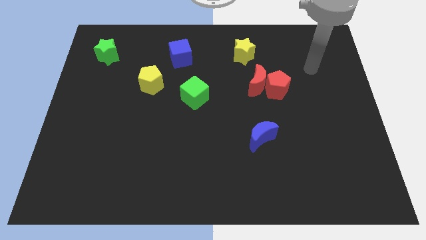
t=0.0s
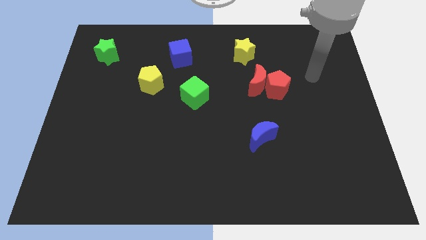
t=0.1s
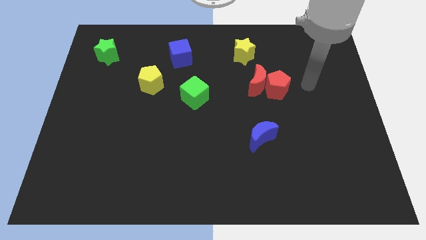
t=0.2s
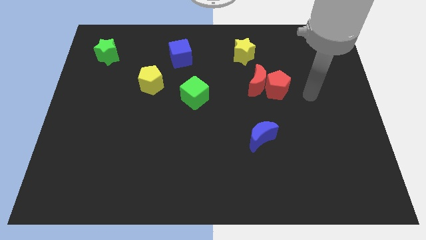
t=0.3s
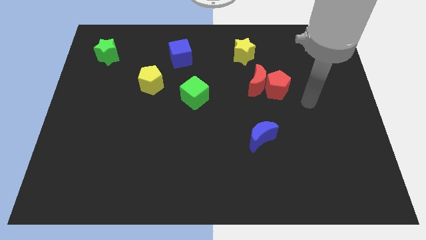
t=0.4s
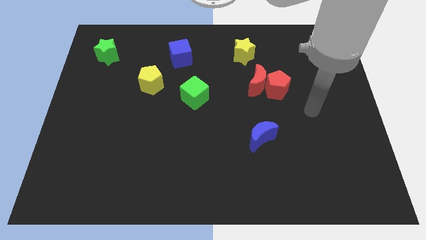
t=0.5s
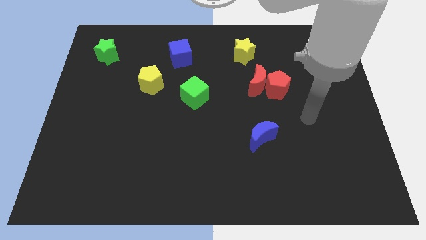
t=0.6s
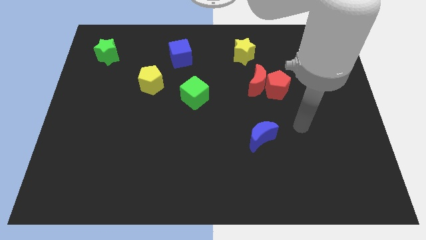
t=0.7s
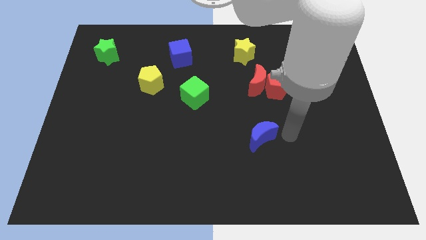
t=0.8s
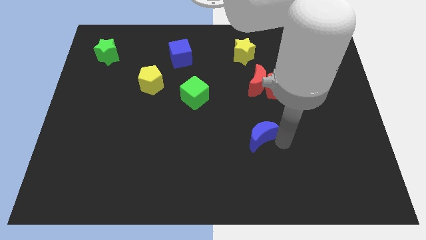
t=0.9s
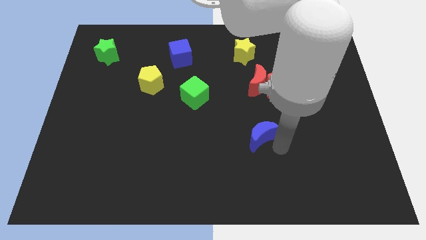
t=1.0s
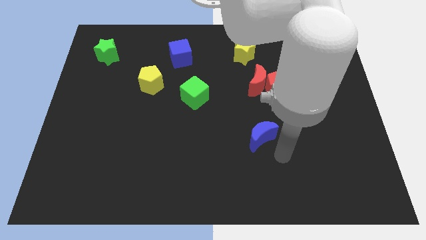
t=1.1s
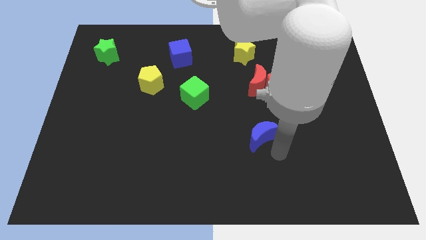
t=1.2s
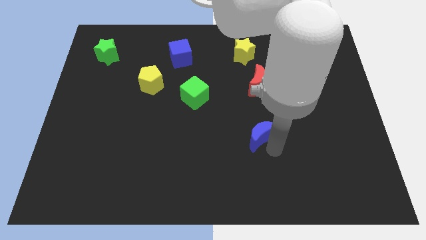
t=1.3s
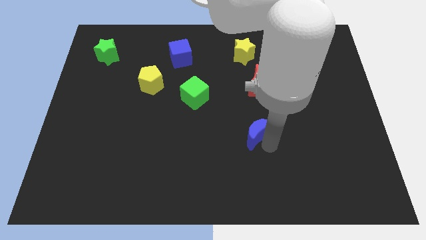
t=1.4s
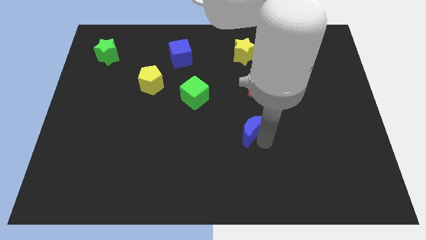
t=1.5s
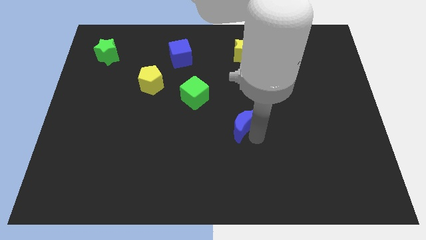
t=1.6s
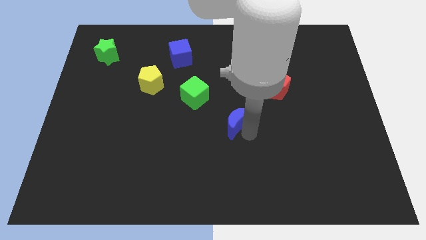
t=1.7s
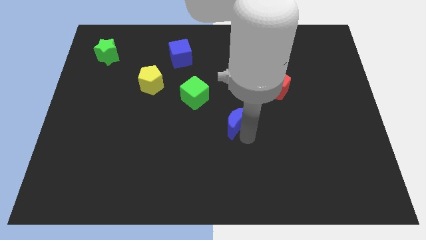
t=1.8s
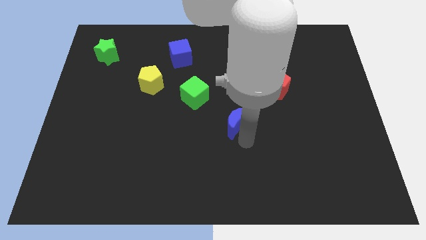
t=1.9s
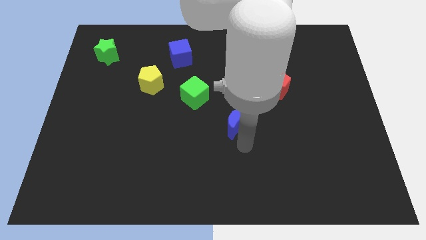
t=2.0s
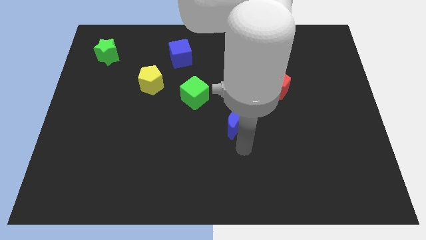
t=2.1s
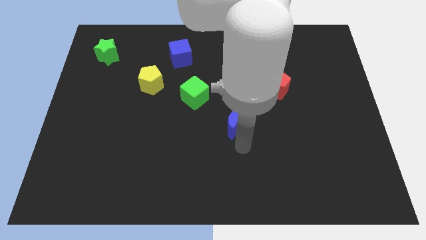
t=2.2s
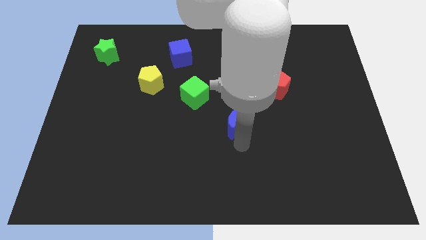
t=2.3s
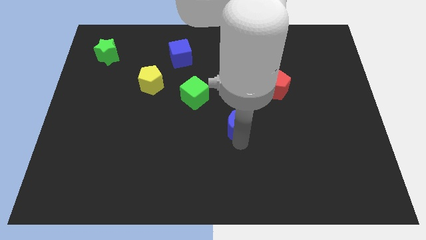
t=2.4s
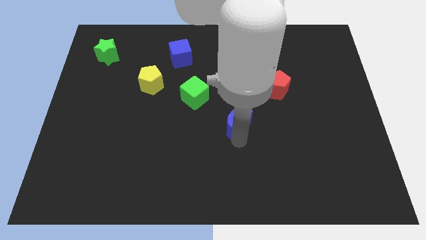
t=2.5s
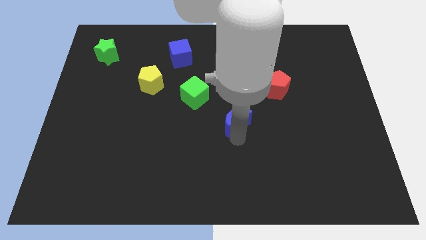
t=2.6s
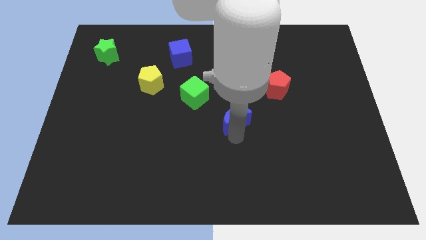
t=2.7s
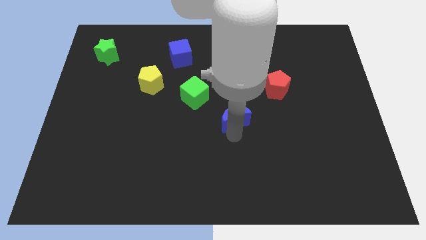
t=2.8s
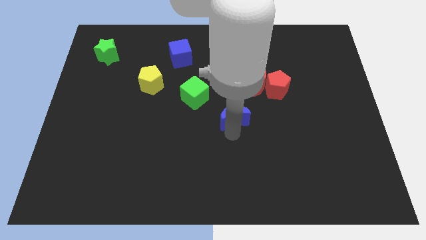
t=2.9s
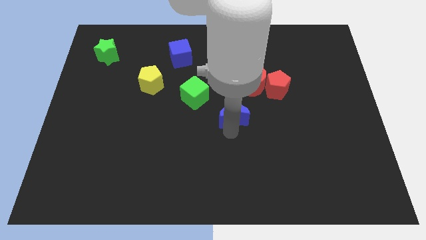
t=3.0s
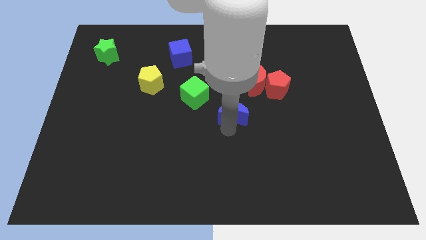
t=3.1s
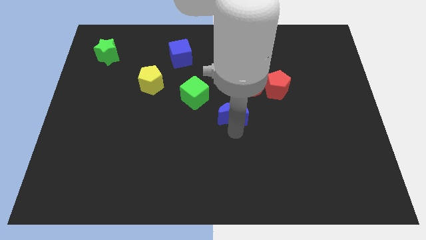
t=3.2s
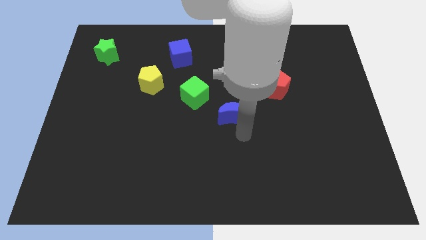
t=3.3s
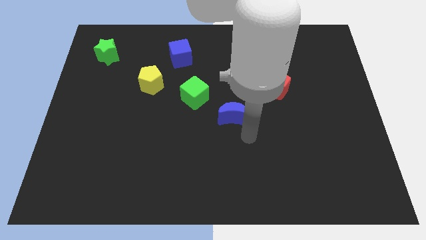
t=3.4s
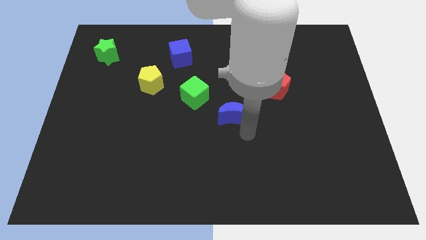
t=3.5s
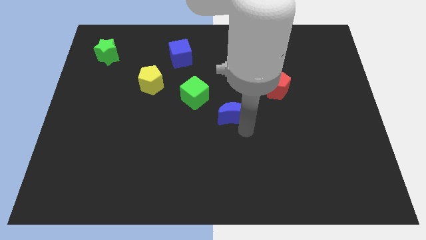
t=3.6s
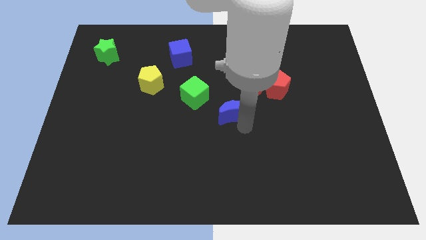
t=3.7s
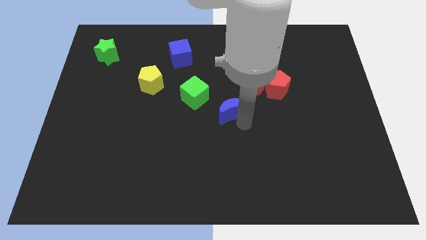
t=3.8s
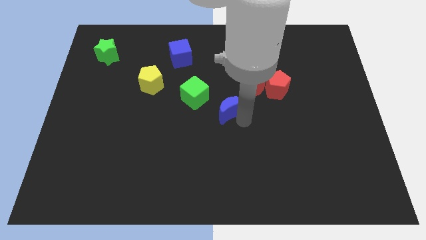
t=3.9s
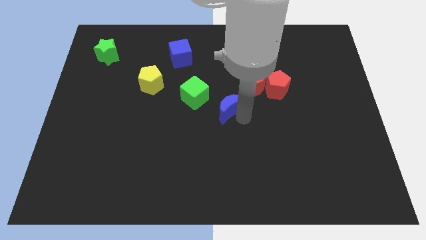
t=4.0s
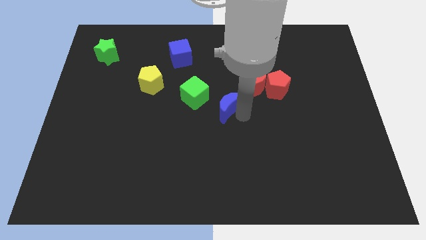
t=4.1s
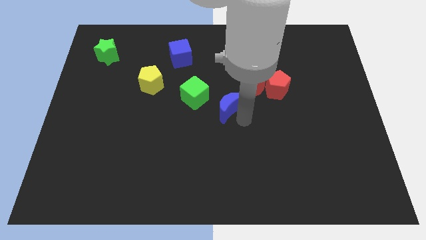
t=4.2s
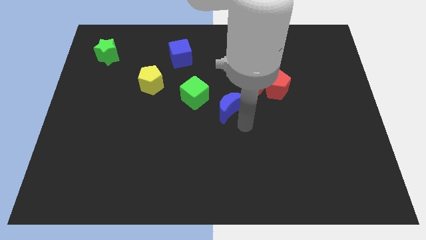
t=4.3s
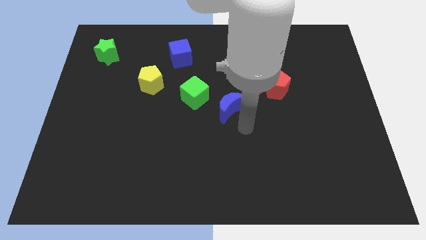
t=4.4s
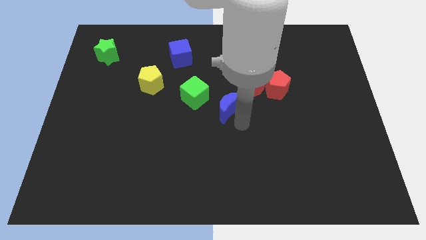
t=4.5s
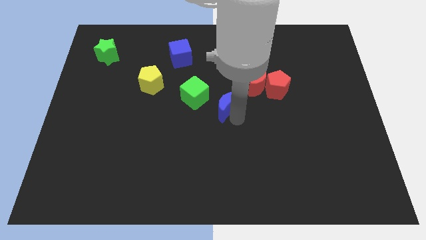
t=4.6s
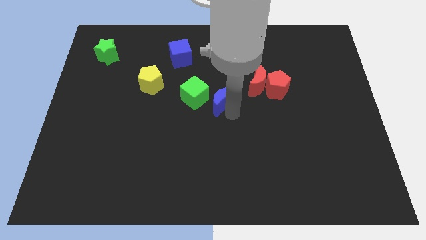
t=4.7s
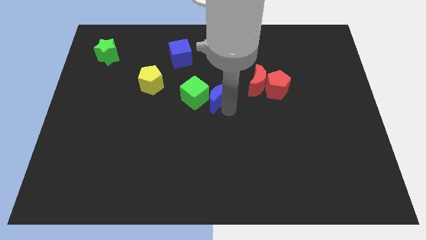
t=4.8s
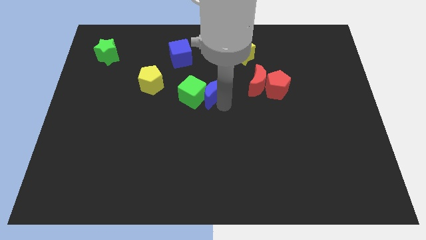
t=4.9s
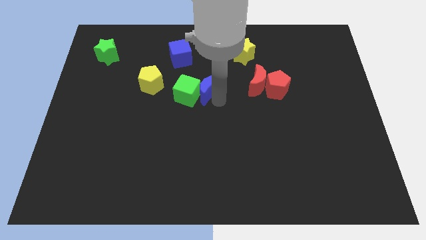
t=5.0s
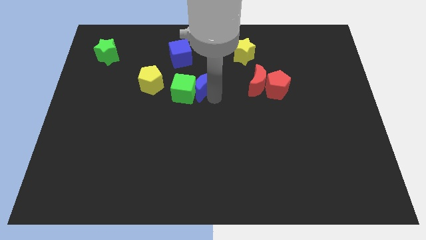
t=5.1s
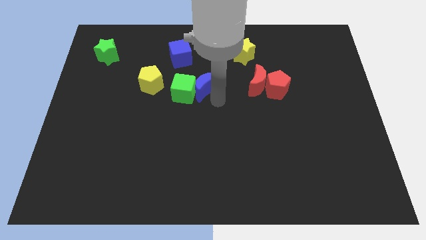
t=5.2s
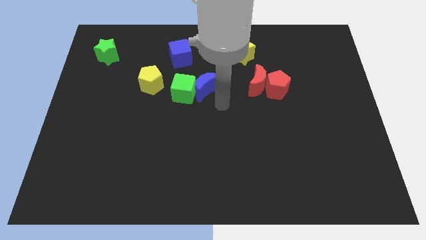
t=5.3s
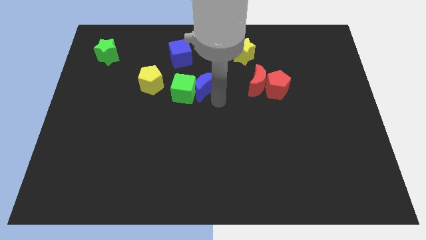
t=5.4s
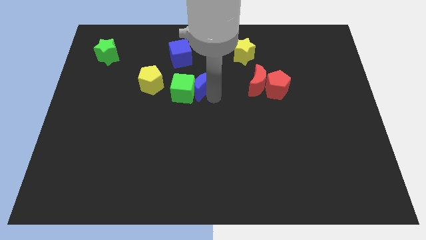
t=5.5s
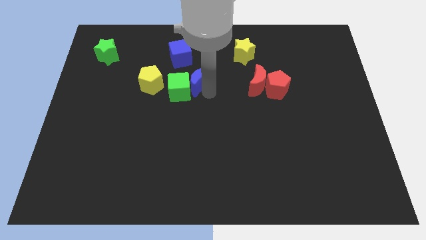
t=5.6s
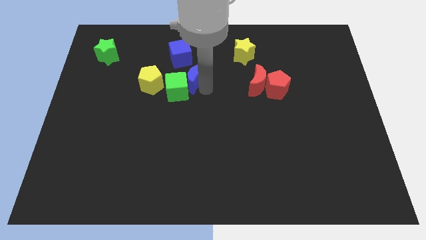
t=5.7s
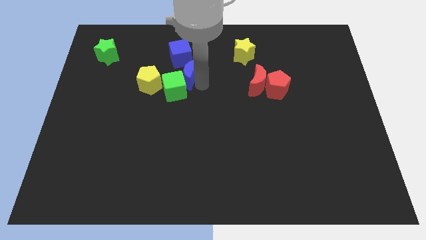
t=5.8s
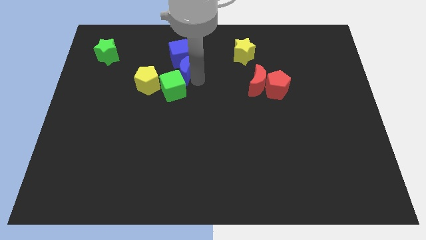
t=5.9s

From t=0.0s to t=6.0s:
push the blue moon diagonally up and to the right of the yellow pentagon

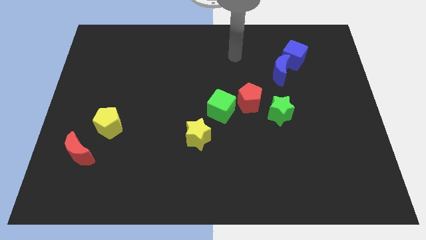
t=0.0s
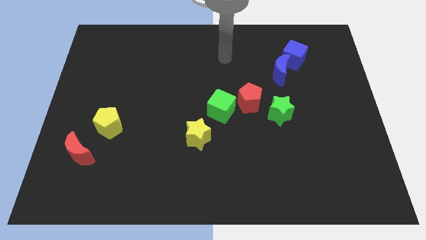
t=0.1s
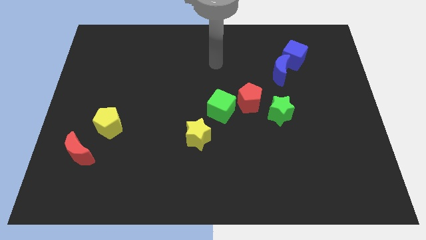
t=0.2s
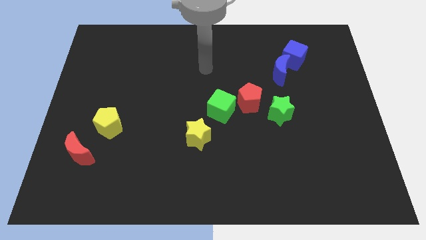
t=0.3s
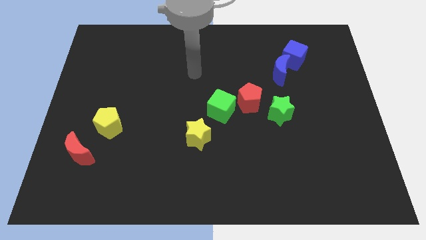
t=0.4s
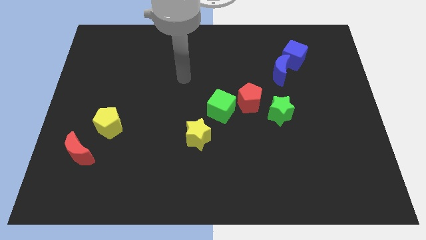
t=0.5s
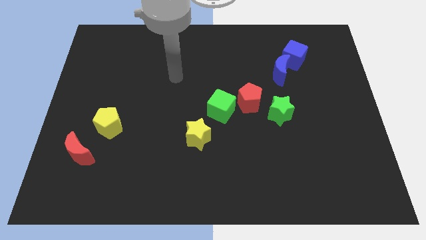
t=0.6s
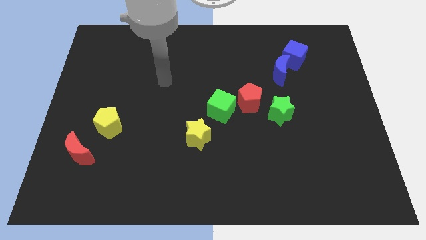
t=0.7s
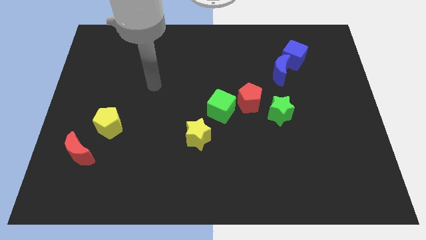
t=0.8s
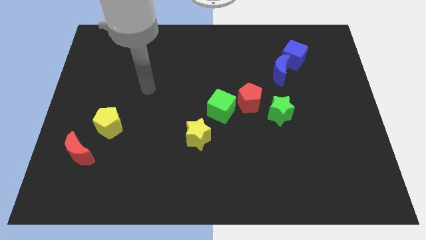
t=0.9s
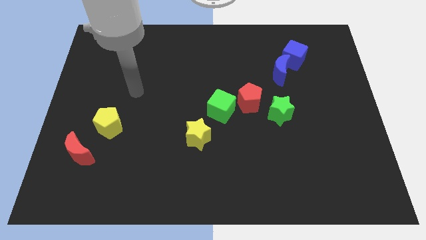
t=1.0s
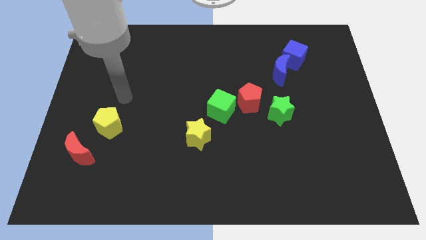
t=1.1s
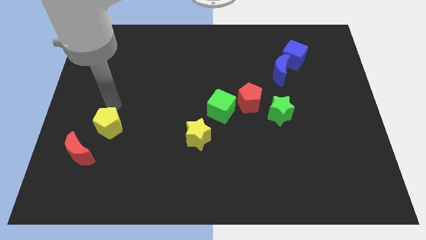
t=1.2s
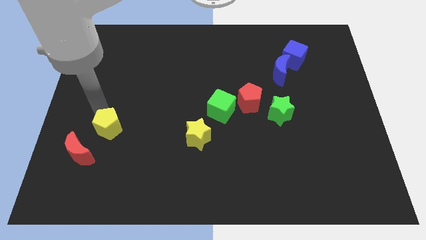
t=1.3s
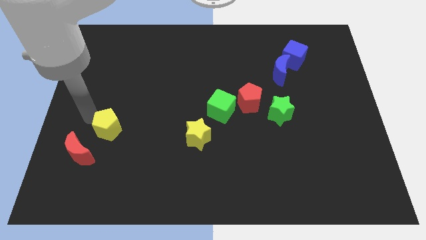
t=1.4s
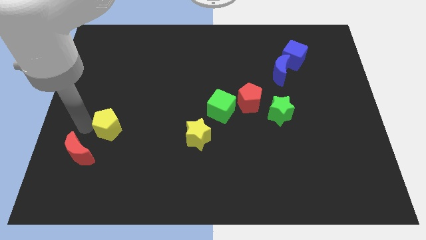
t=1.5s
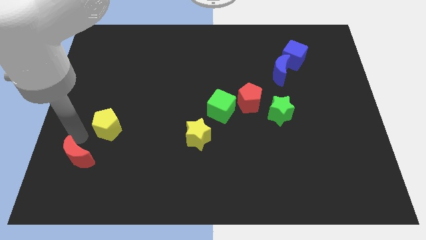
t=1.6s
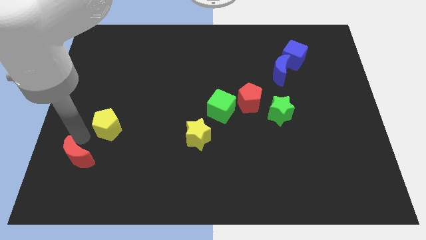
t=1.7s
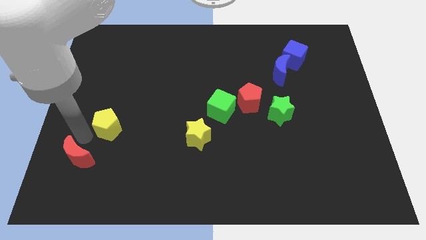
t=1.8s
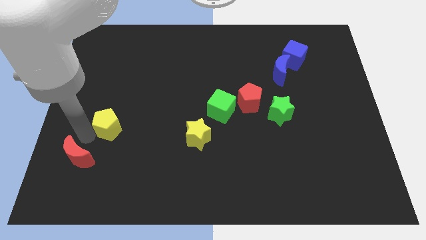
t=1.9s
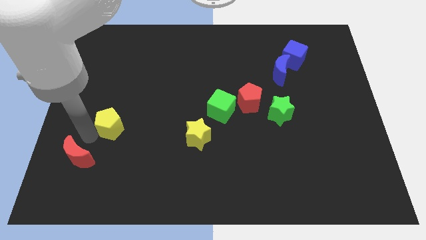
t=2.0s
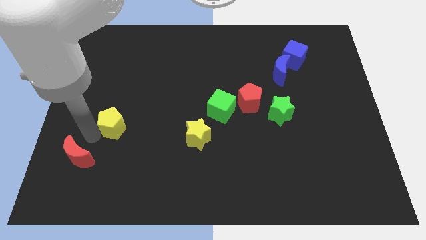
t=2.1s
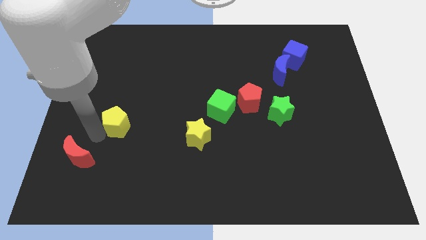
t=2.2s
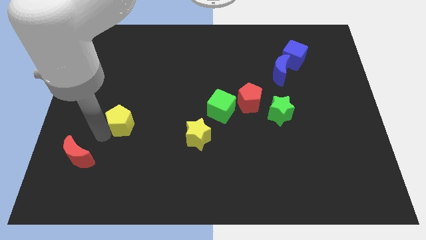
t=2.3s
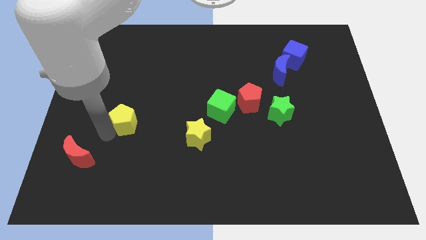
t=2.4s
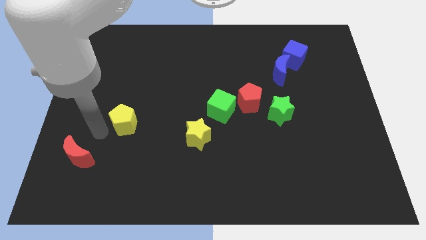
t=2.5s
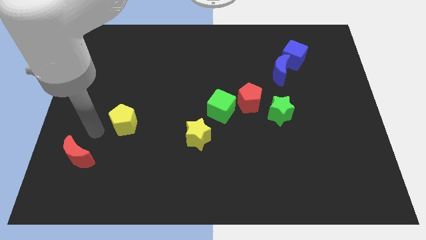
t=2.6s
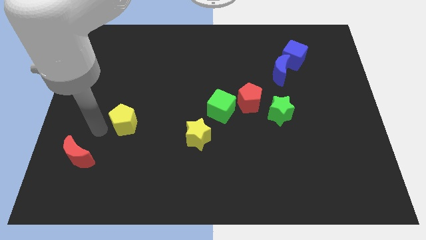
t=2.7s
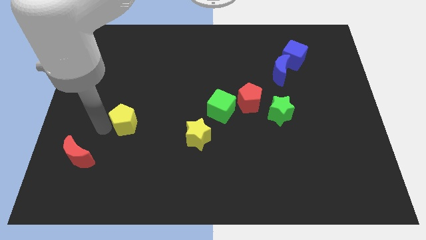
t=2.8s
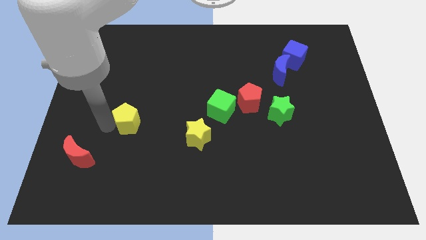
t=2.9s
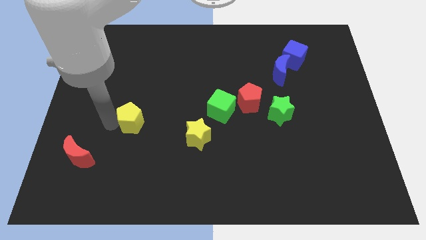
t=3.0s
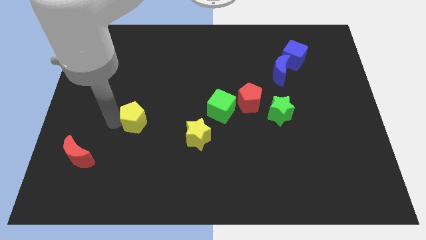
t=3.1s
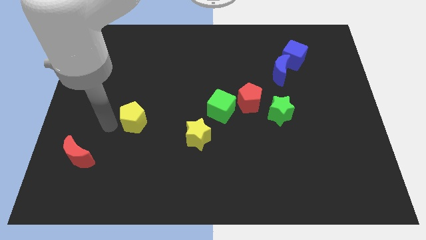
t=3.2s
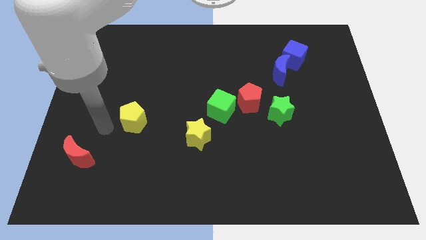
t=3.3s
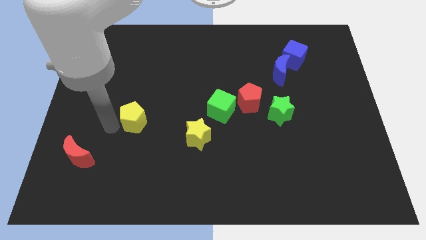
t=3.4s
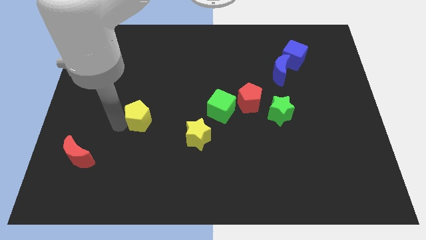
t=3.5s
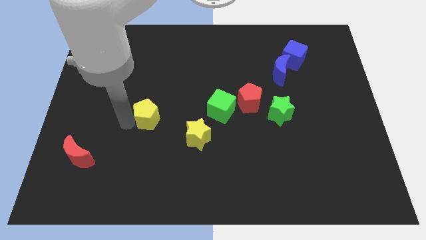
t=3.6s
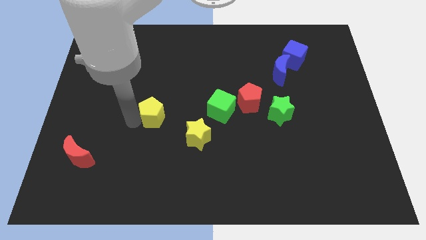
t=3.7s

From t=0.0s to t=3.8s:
put the yellow pentagon just left of the green cube
